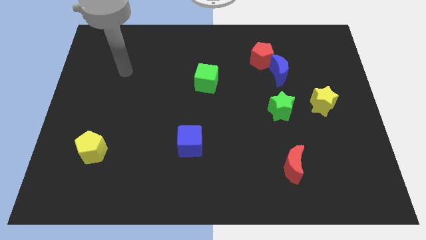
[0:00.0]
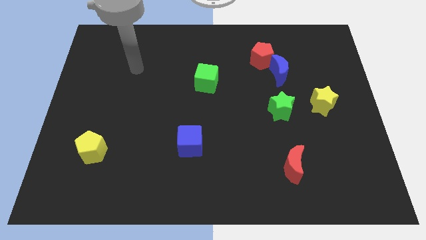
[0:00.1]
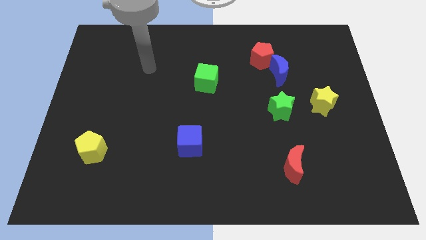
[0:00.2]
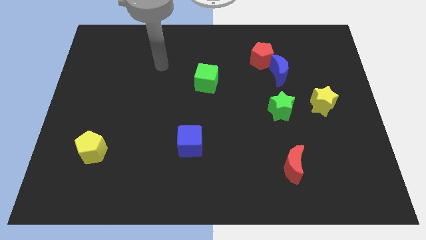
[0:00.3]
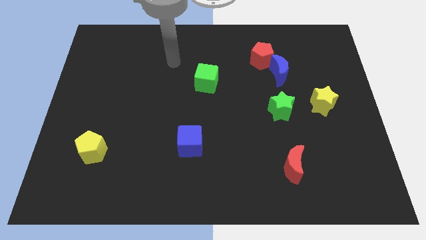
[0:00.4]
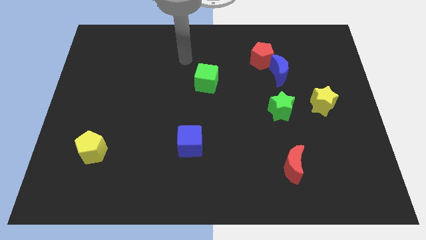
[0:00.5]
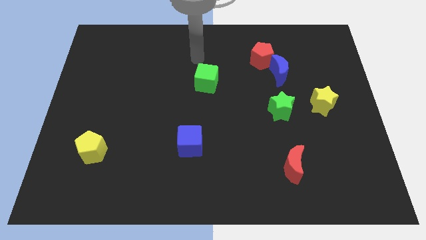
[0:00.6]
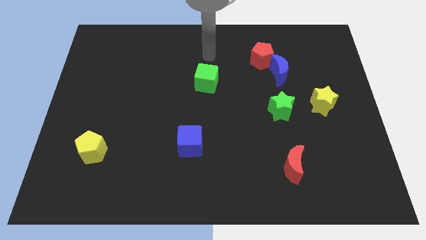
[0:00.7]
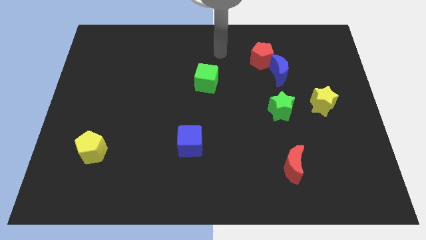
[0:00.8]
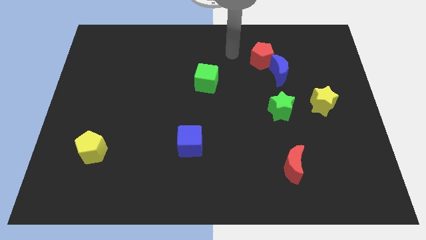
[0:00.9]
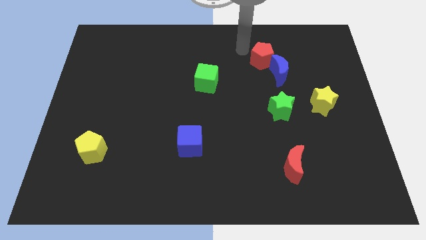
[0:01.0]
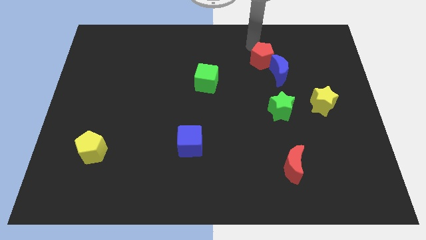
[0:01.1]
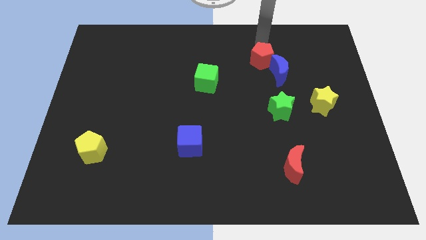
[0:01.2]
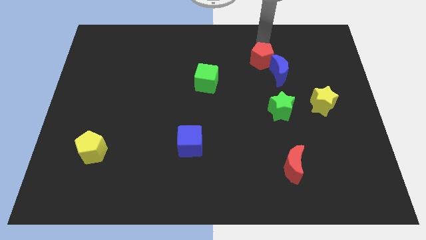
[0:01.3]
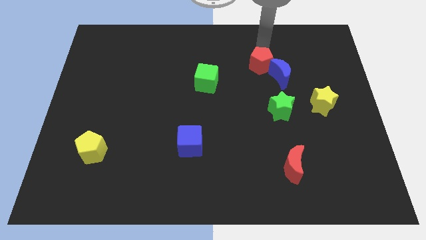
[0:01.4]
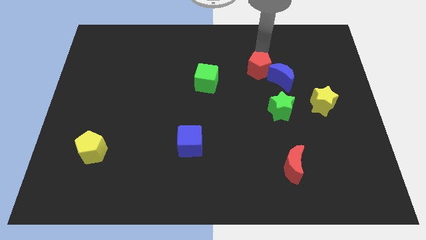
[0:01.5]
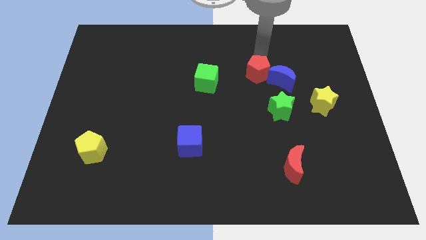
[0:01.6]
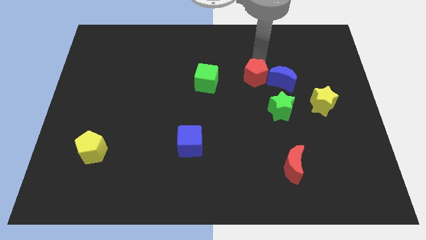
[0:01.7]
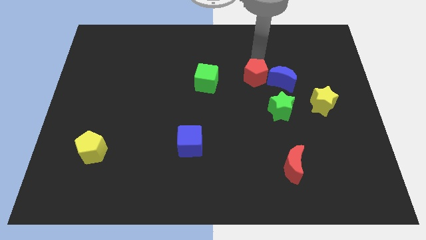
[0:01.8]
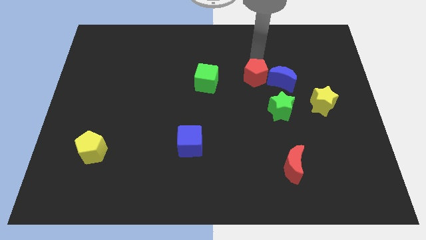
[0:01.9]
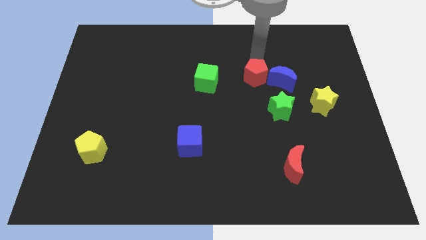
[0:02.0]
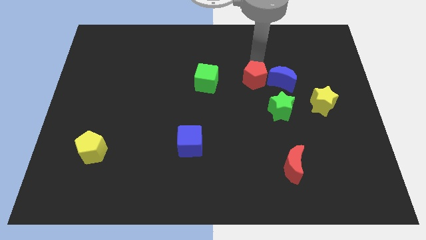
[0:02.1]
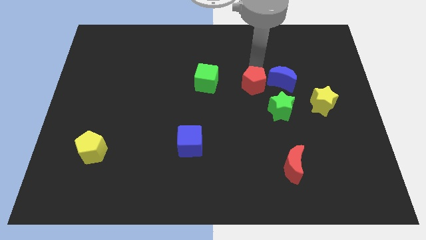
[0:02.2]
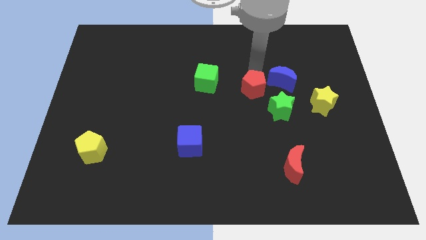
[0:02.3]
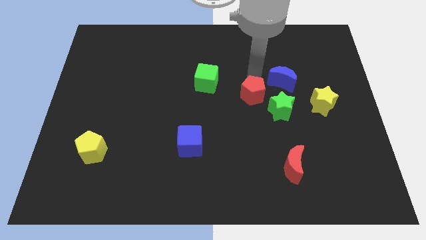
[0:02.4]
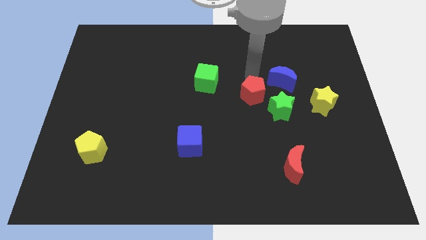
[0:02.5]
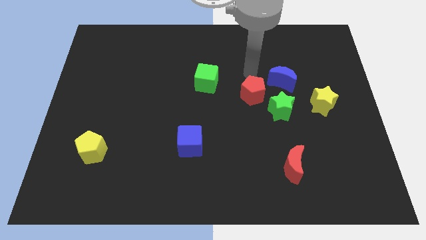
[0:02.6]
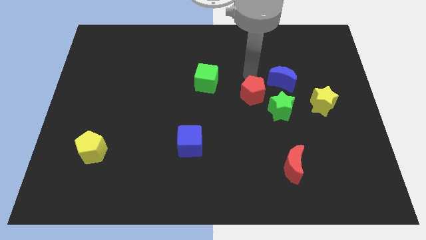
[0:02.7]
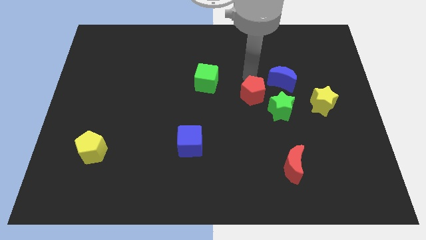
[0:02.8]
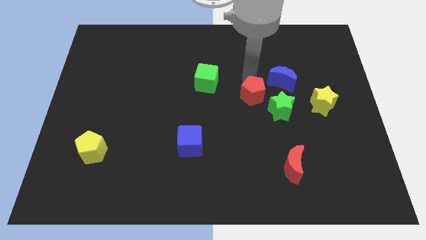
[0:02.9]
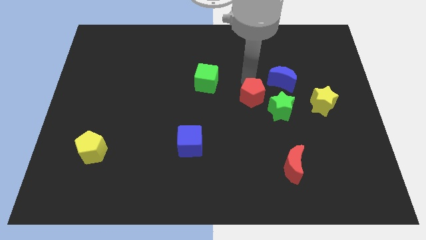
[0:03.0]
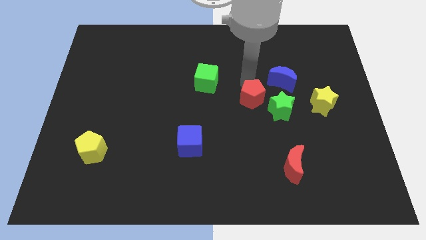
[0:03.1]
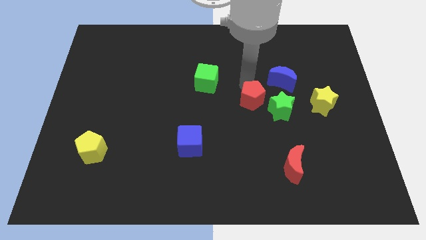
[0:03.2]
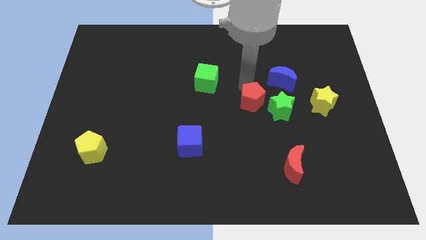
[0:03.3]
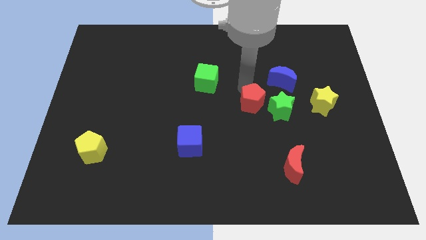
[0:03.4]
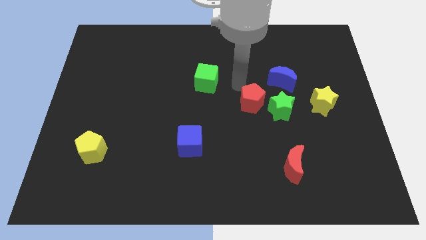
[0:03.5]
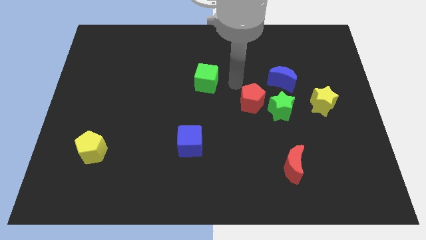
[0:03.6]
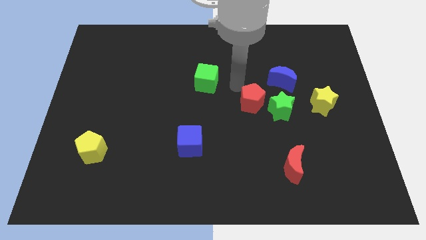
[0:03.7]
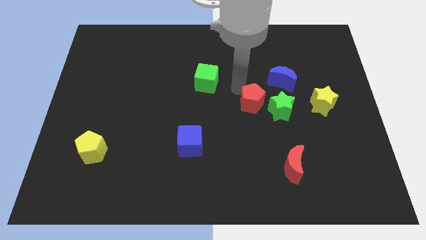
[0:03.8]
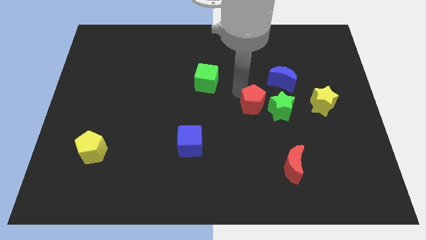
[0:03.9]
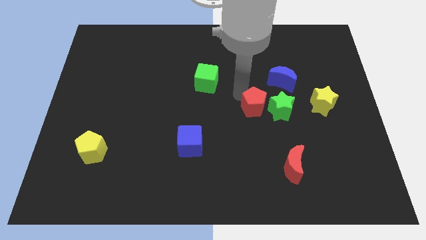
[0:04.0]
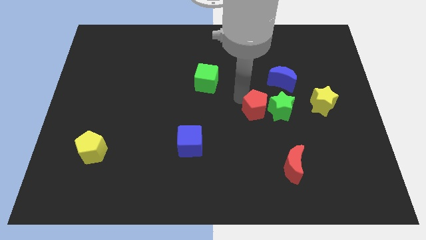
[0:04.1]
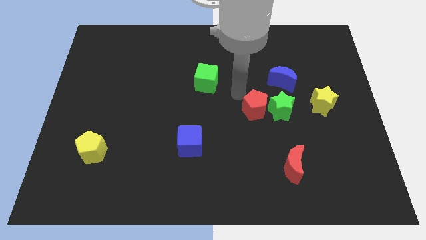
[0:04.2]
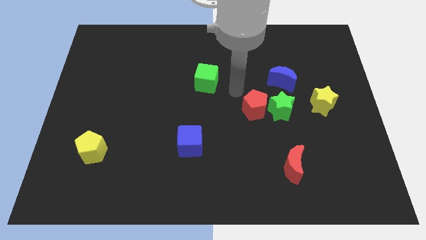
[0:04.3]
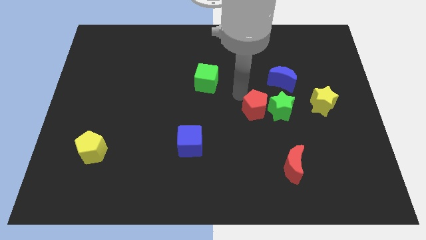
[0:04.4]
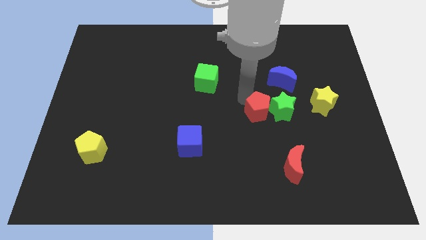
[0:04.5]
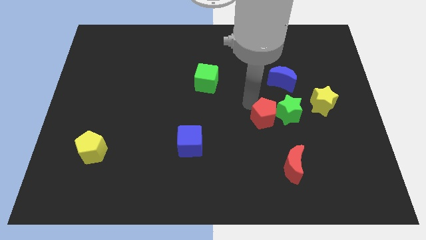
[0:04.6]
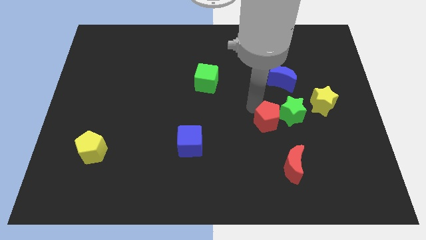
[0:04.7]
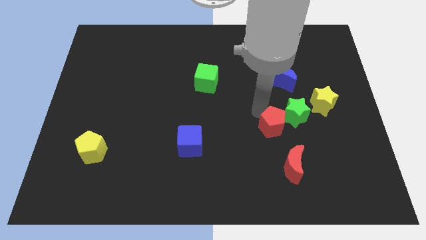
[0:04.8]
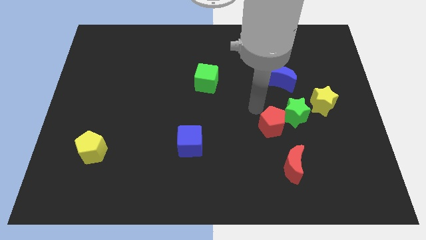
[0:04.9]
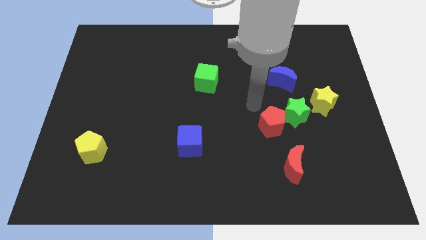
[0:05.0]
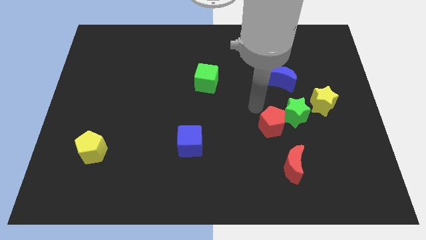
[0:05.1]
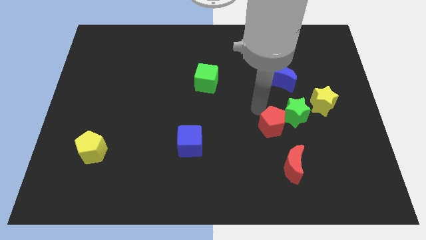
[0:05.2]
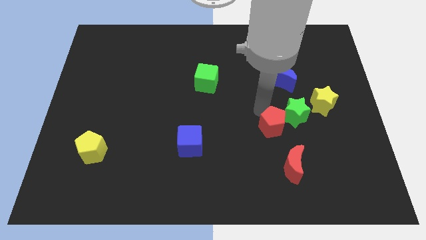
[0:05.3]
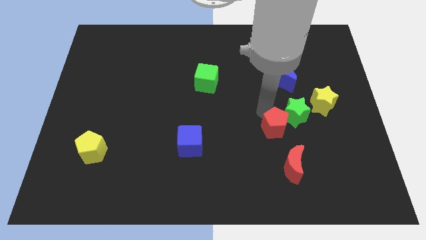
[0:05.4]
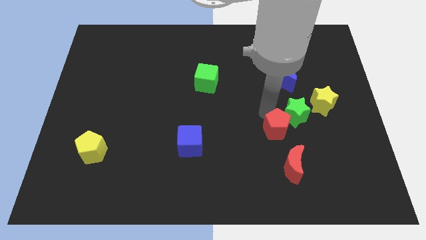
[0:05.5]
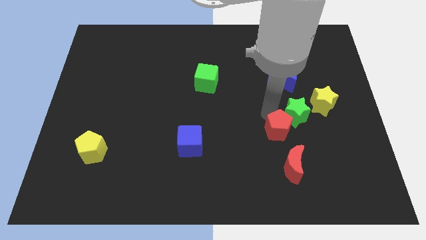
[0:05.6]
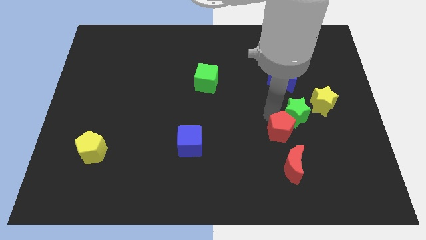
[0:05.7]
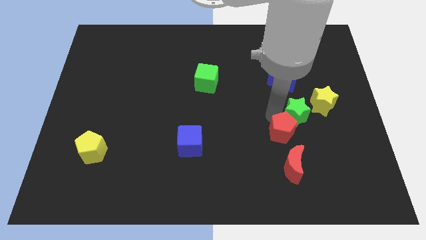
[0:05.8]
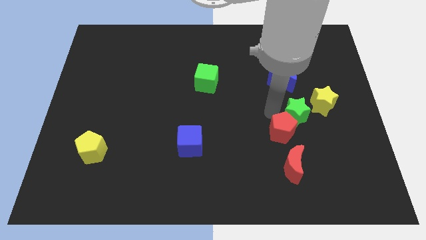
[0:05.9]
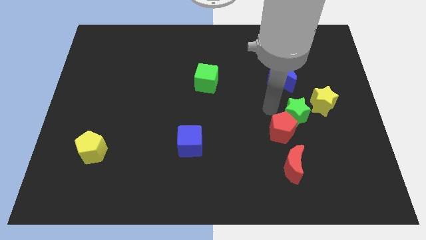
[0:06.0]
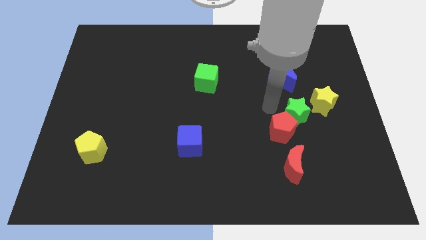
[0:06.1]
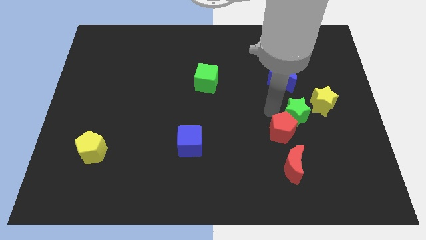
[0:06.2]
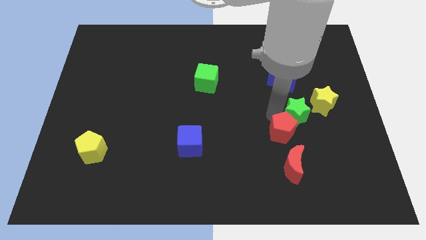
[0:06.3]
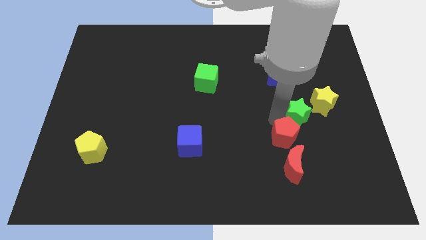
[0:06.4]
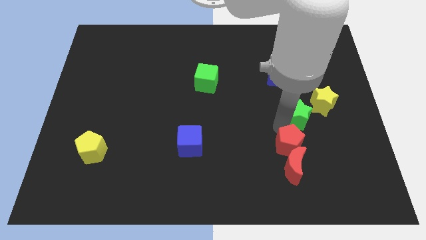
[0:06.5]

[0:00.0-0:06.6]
slide the red pentagon towards the red moon

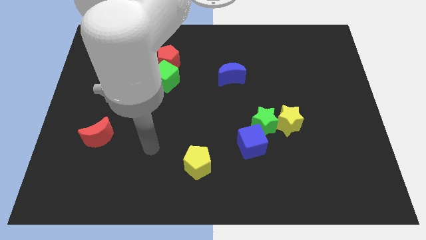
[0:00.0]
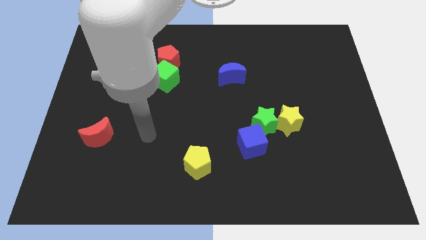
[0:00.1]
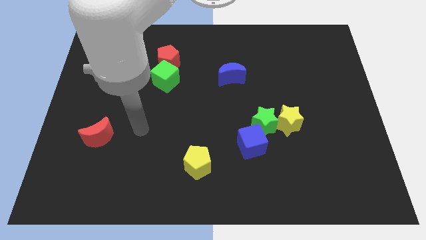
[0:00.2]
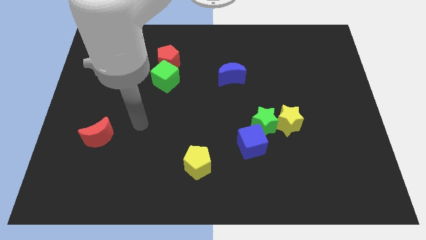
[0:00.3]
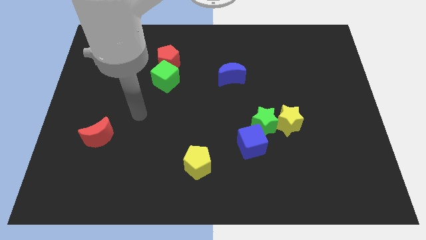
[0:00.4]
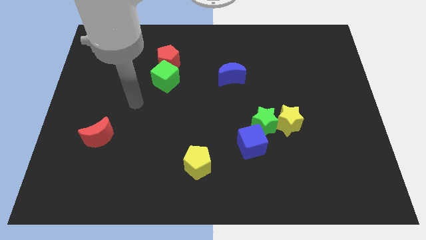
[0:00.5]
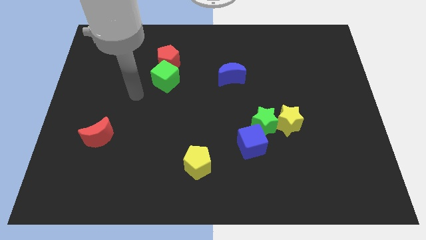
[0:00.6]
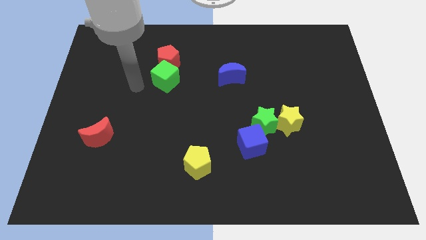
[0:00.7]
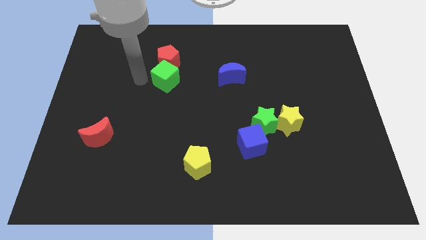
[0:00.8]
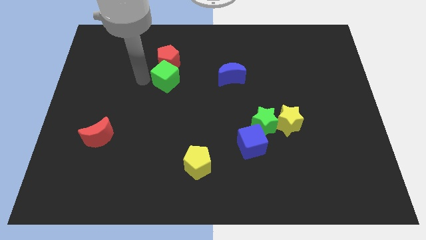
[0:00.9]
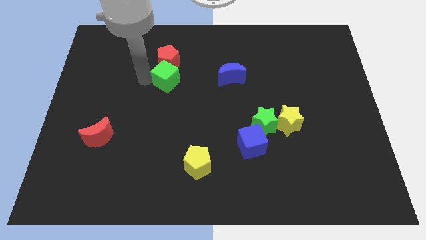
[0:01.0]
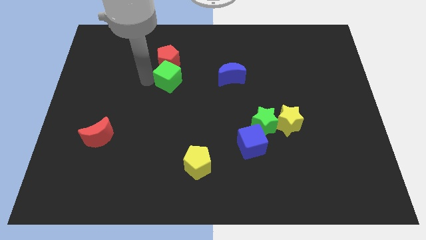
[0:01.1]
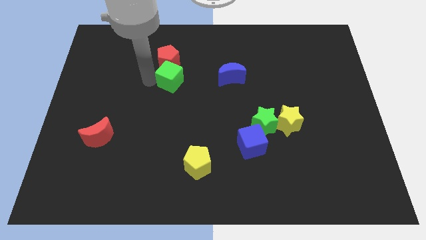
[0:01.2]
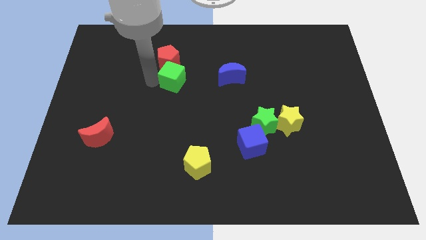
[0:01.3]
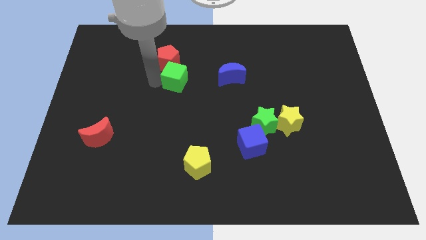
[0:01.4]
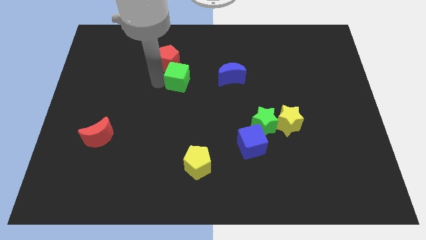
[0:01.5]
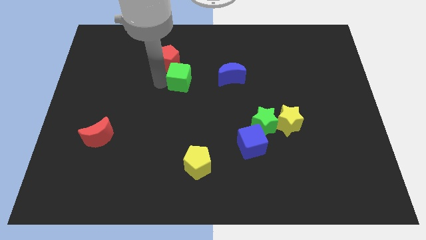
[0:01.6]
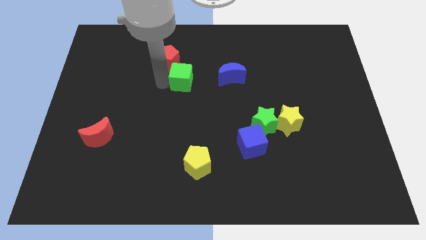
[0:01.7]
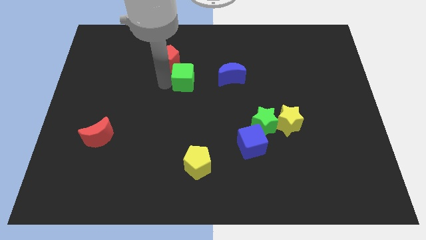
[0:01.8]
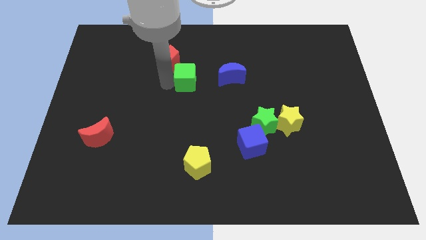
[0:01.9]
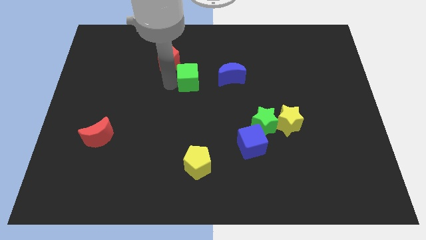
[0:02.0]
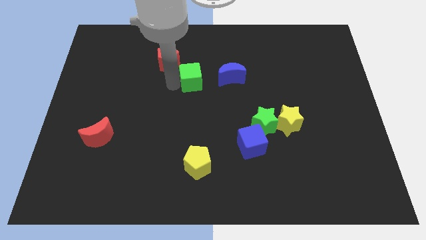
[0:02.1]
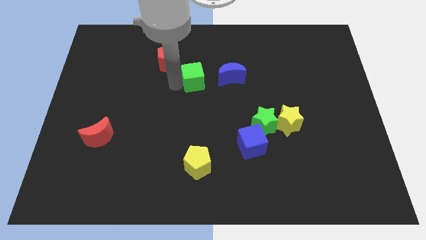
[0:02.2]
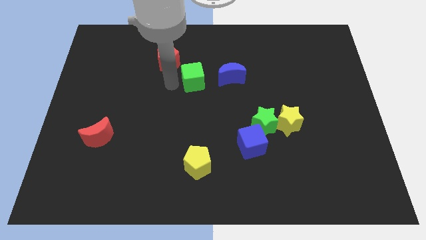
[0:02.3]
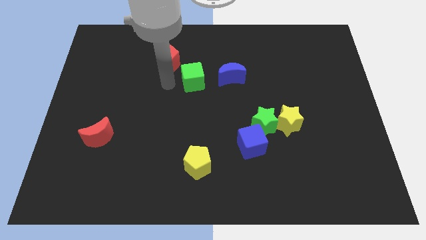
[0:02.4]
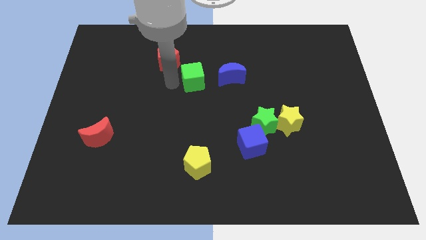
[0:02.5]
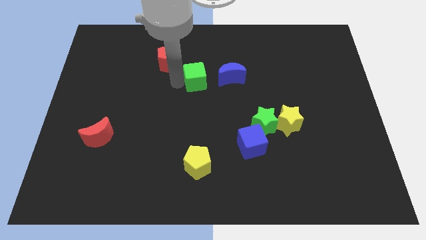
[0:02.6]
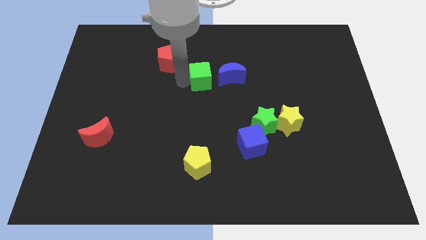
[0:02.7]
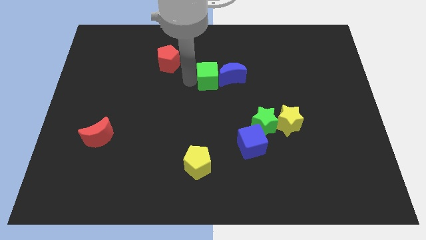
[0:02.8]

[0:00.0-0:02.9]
move the green cube close to the blue moon
